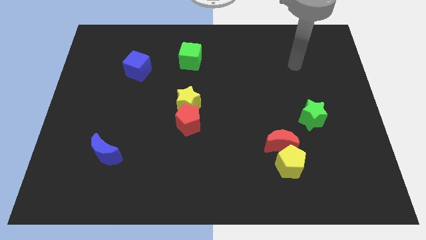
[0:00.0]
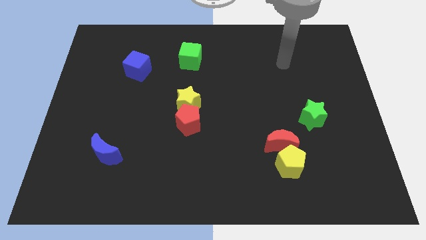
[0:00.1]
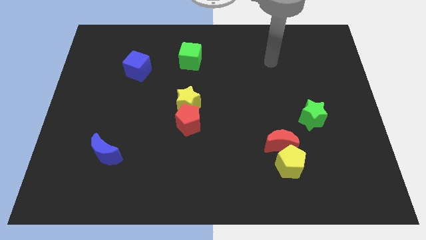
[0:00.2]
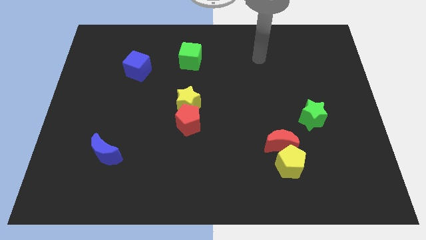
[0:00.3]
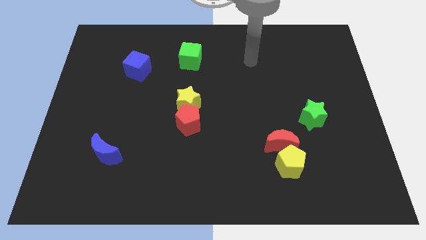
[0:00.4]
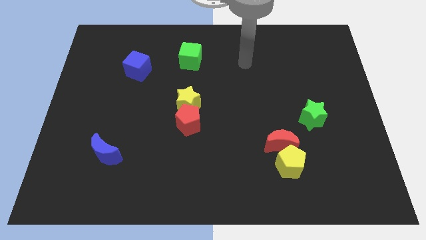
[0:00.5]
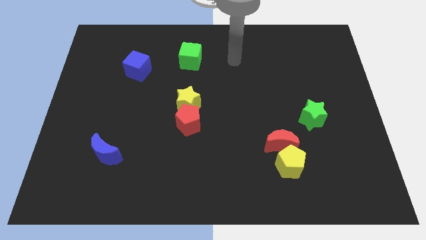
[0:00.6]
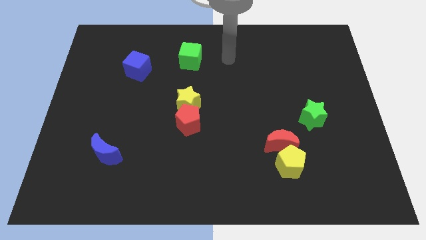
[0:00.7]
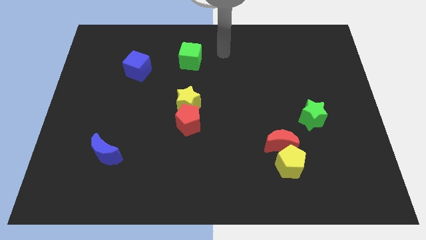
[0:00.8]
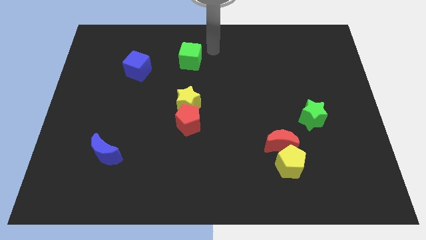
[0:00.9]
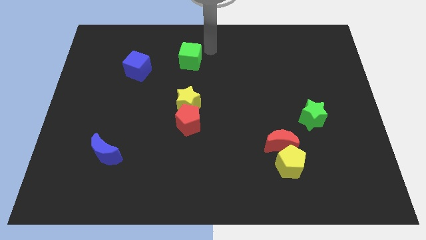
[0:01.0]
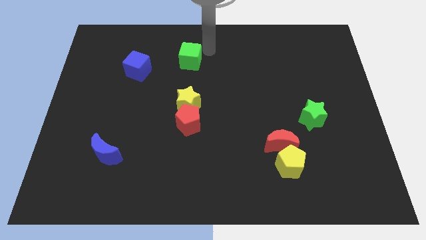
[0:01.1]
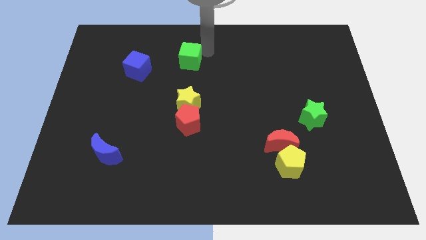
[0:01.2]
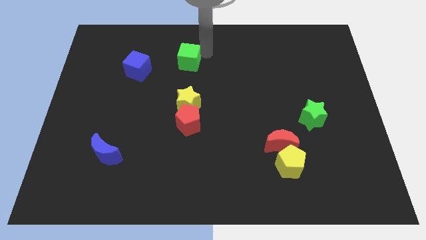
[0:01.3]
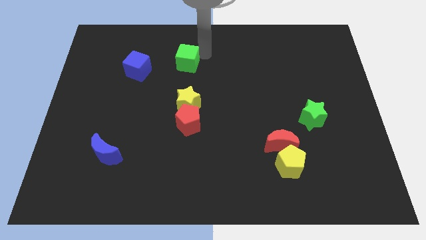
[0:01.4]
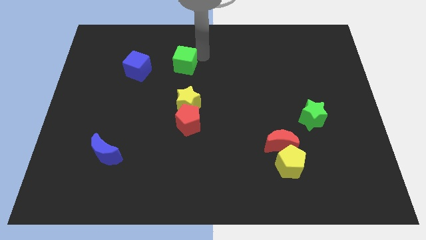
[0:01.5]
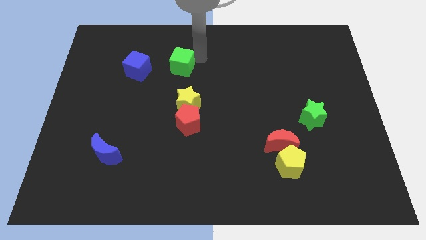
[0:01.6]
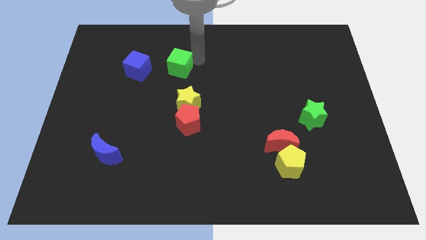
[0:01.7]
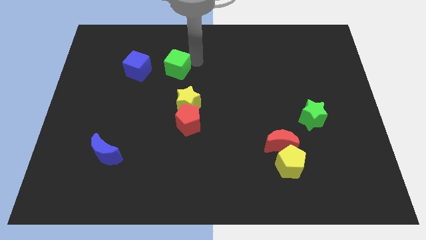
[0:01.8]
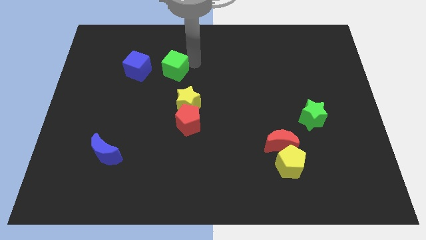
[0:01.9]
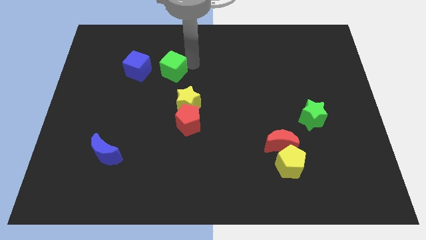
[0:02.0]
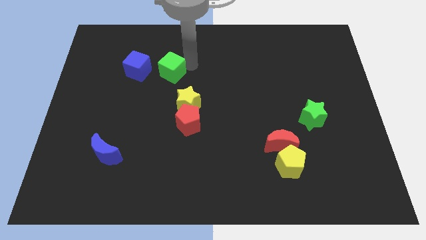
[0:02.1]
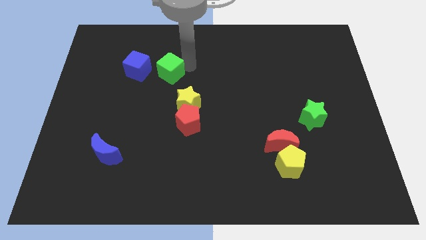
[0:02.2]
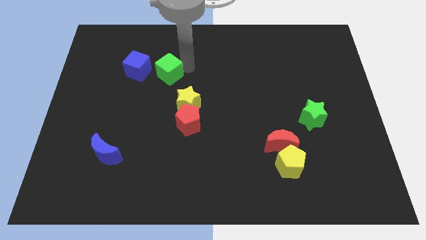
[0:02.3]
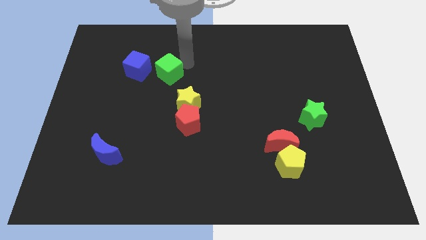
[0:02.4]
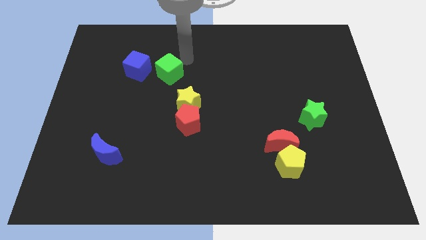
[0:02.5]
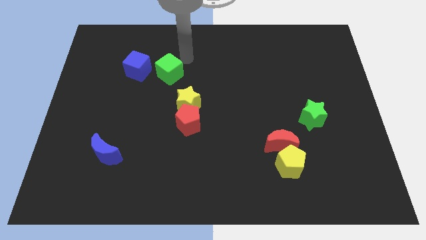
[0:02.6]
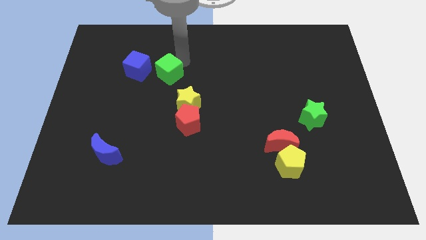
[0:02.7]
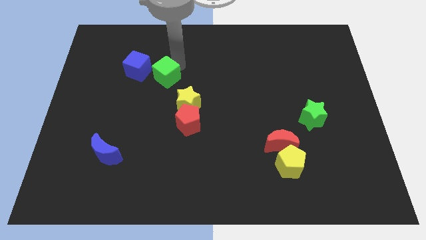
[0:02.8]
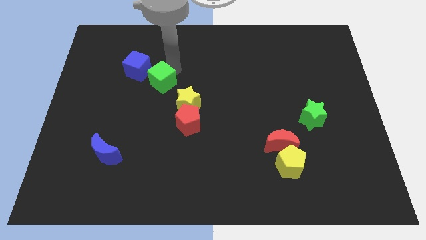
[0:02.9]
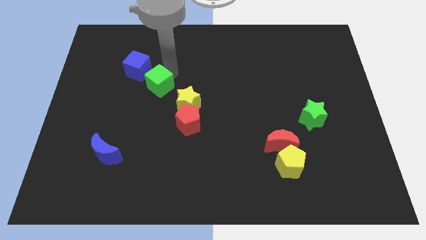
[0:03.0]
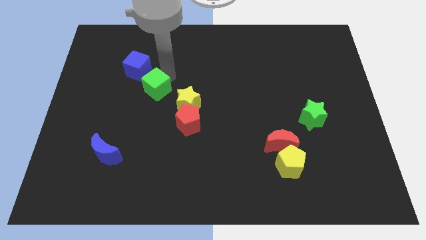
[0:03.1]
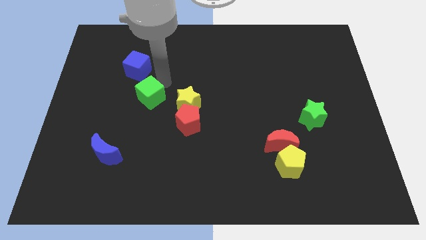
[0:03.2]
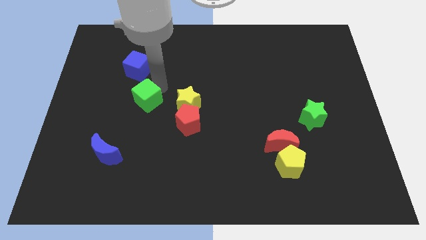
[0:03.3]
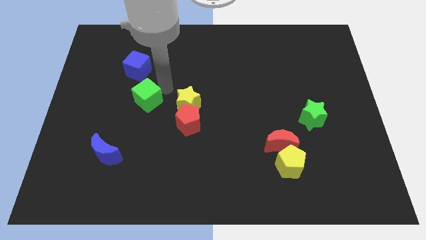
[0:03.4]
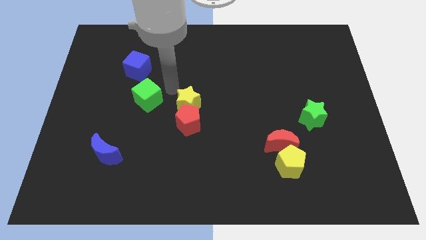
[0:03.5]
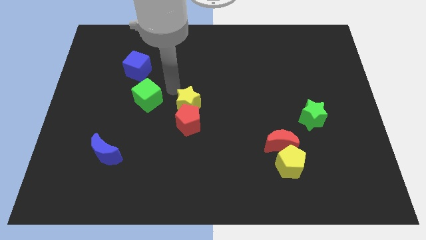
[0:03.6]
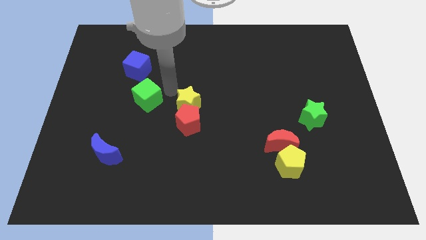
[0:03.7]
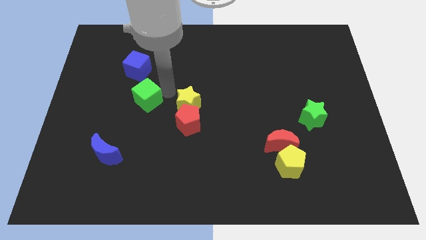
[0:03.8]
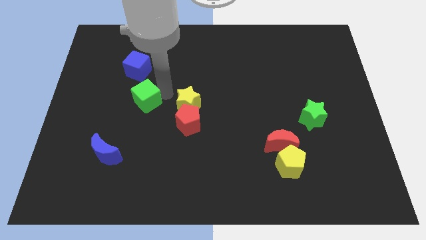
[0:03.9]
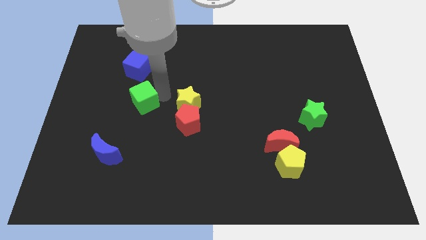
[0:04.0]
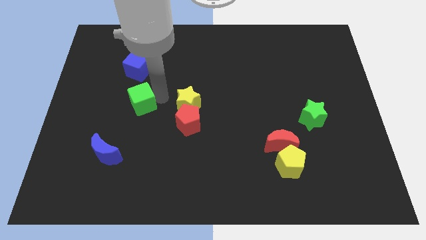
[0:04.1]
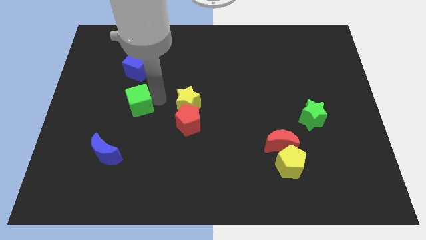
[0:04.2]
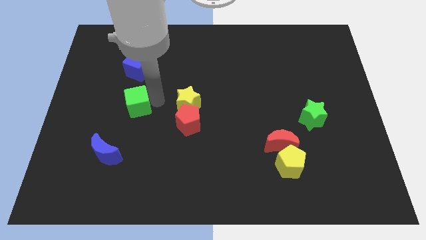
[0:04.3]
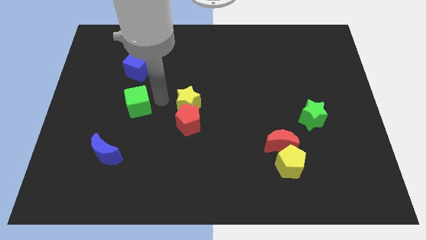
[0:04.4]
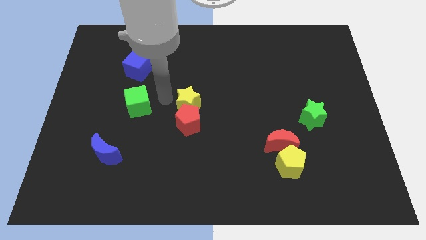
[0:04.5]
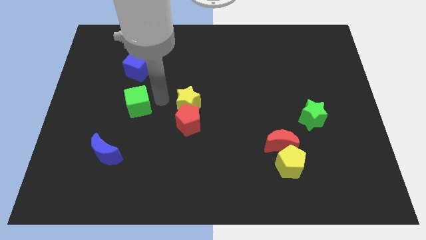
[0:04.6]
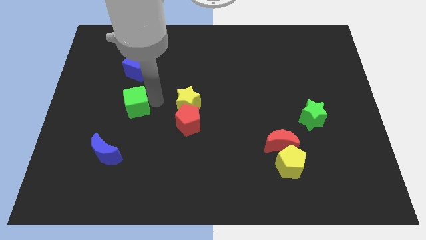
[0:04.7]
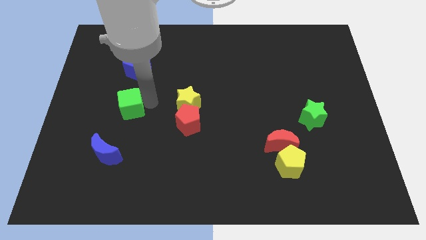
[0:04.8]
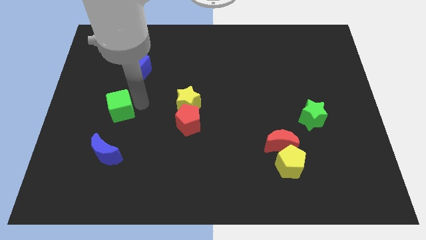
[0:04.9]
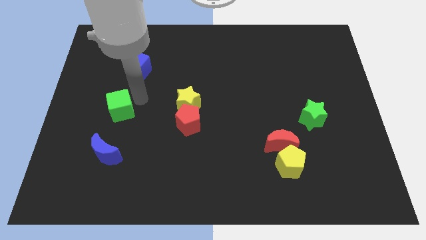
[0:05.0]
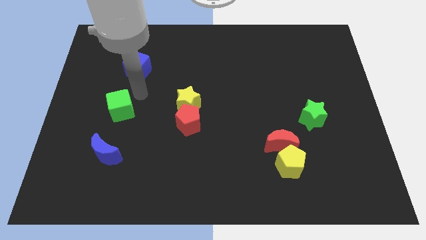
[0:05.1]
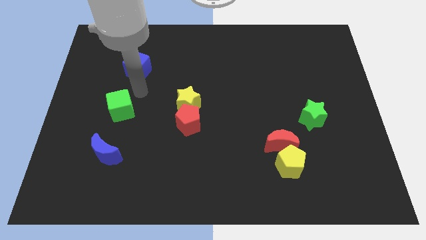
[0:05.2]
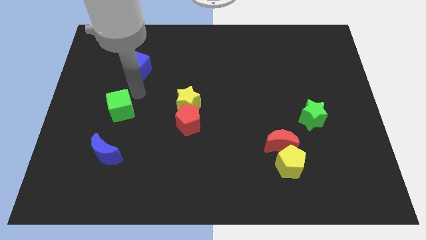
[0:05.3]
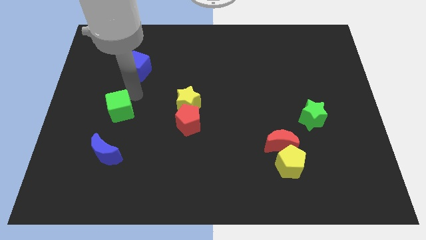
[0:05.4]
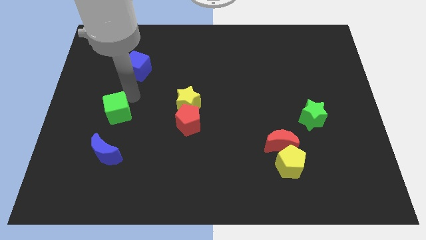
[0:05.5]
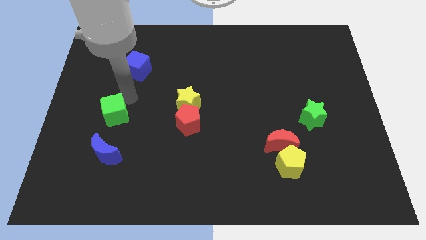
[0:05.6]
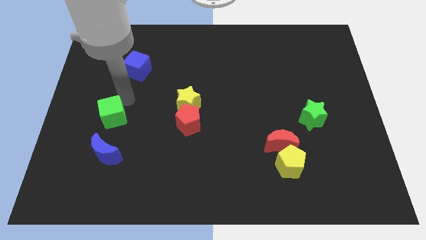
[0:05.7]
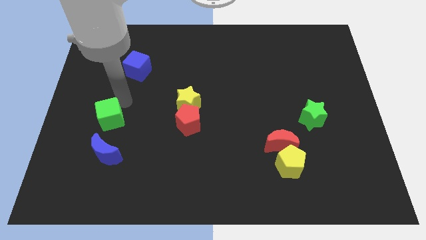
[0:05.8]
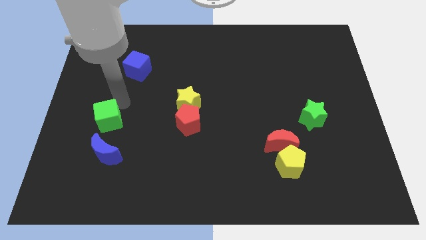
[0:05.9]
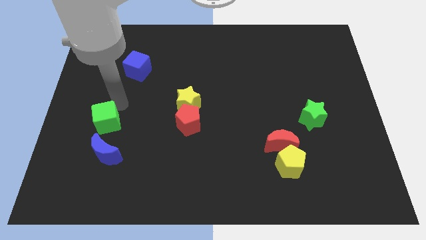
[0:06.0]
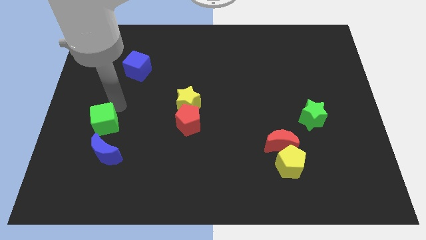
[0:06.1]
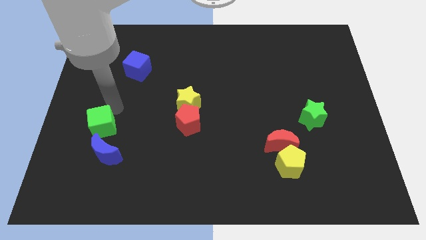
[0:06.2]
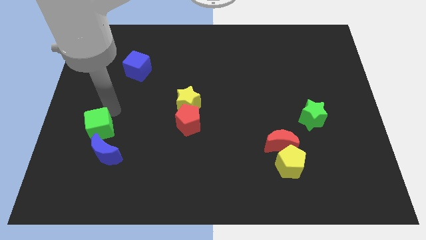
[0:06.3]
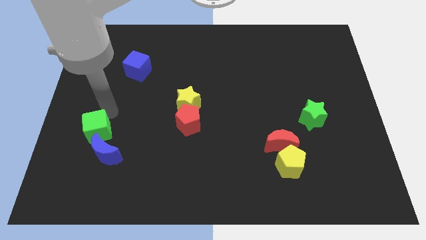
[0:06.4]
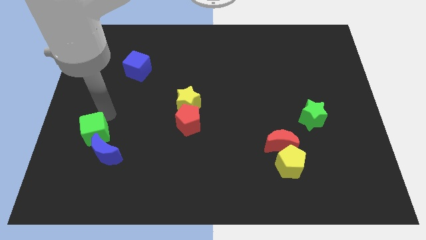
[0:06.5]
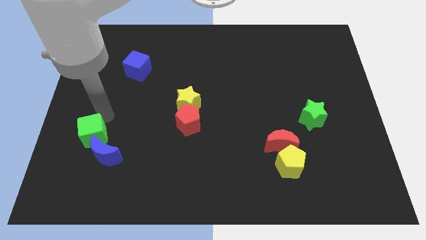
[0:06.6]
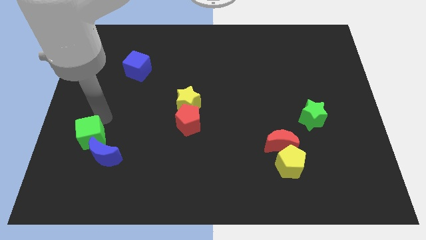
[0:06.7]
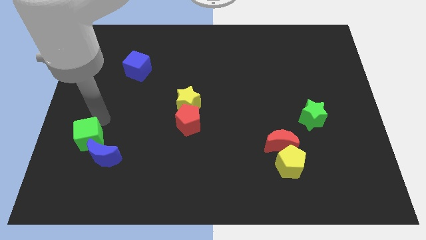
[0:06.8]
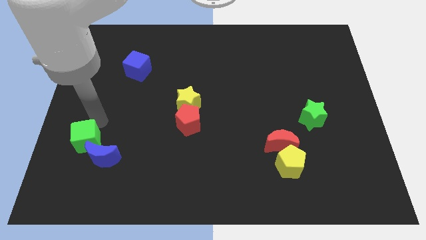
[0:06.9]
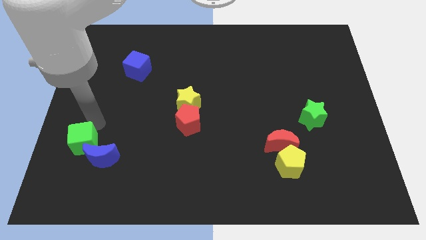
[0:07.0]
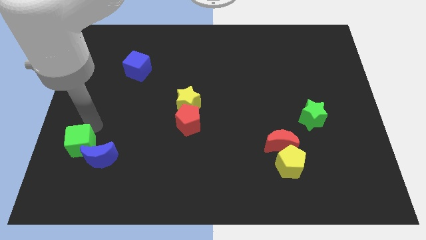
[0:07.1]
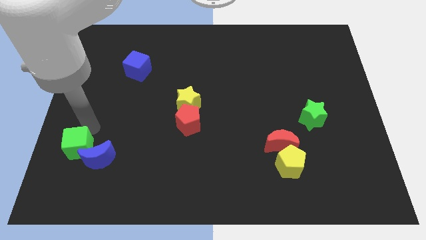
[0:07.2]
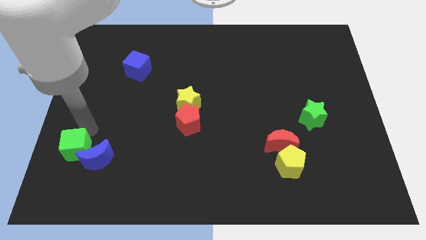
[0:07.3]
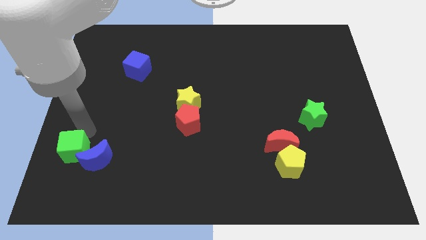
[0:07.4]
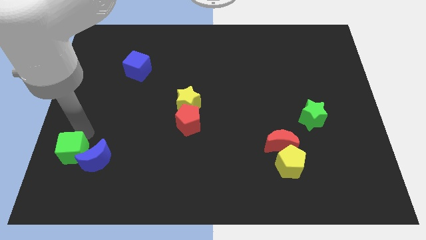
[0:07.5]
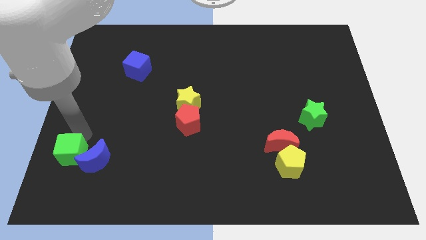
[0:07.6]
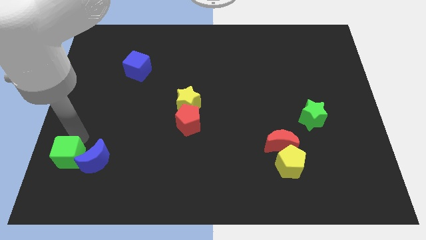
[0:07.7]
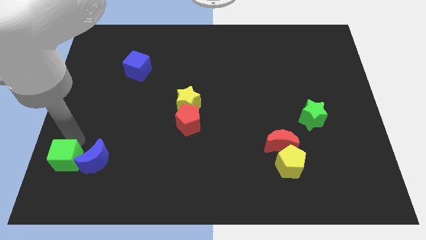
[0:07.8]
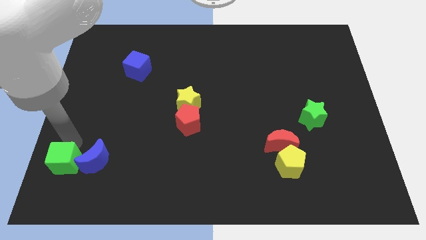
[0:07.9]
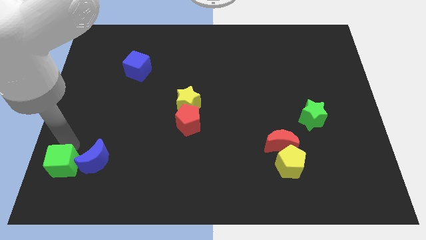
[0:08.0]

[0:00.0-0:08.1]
move the green cube to the bottom left
